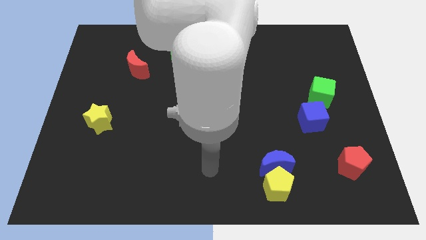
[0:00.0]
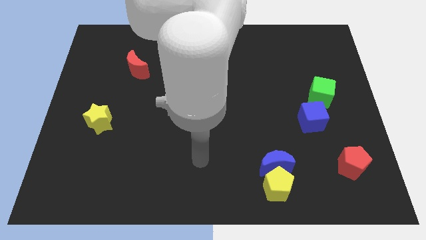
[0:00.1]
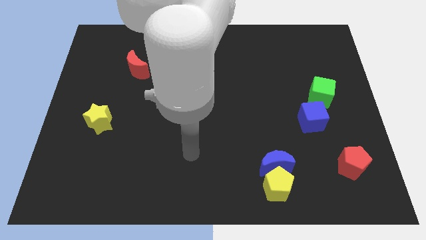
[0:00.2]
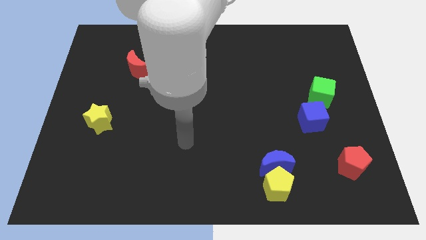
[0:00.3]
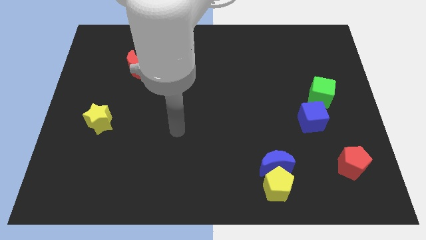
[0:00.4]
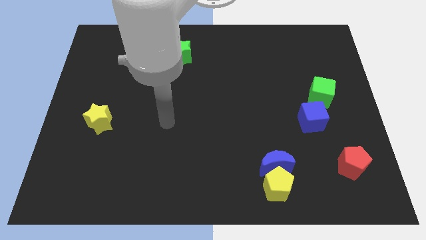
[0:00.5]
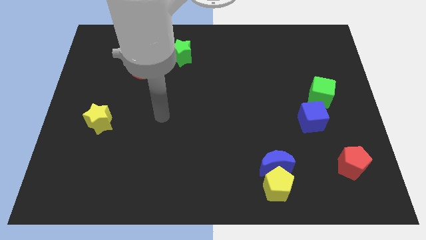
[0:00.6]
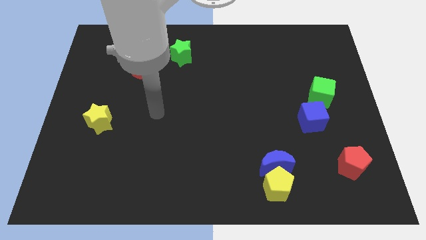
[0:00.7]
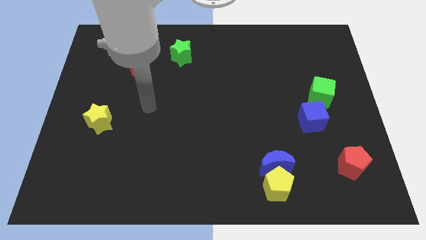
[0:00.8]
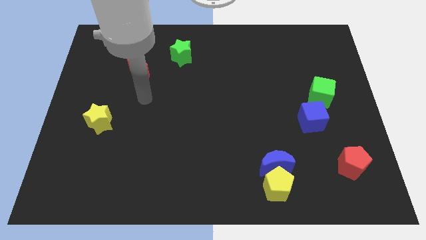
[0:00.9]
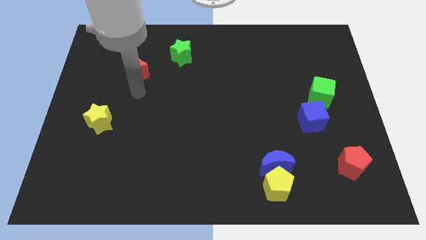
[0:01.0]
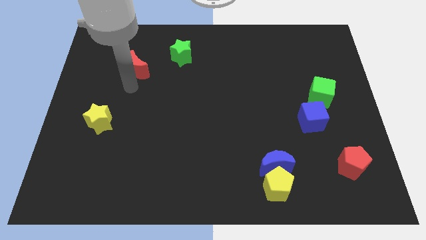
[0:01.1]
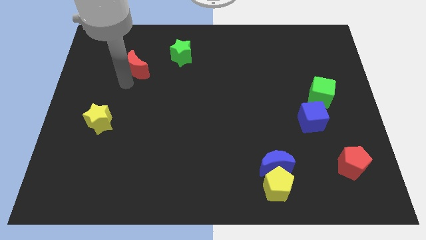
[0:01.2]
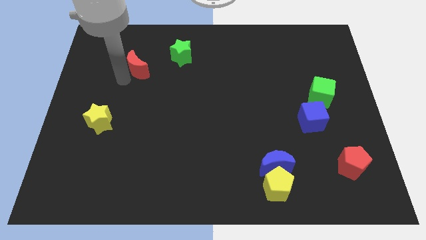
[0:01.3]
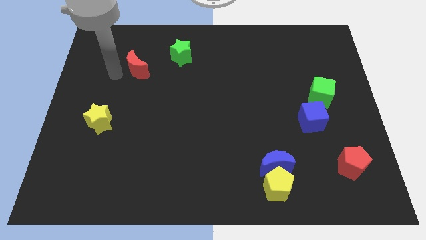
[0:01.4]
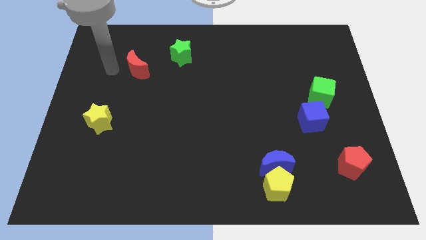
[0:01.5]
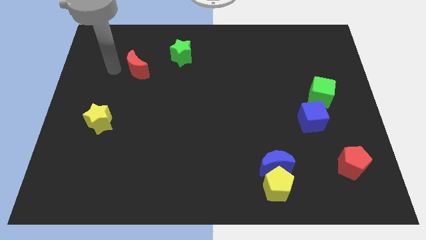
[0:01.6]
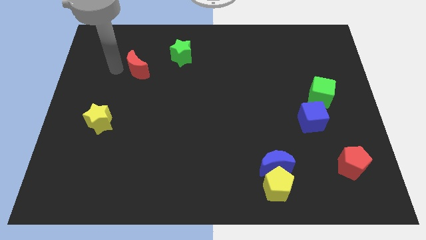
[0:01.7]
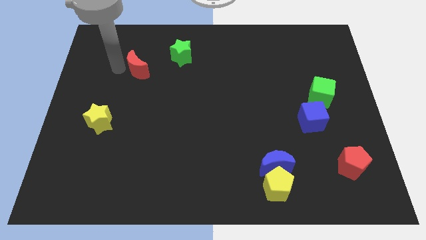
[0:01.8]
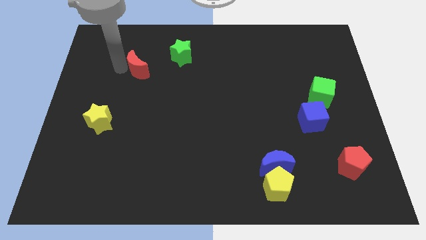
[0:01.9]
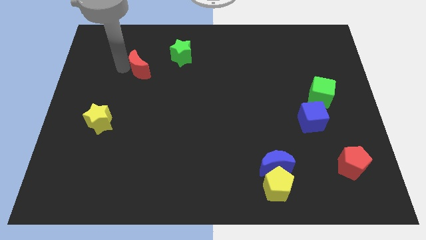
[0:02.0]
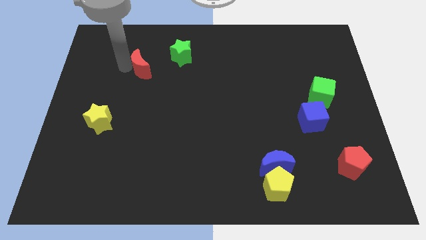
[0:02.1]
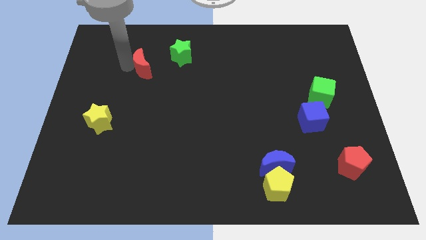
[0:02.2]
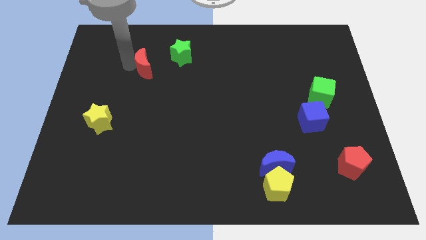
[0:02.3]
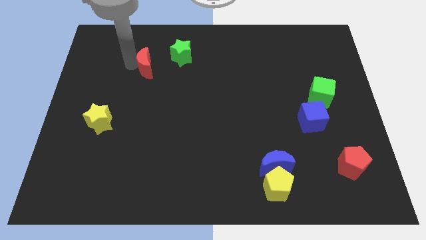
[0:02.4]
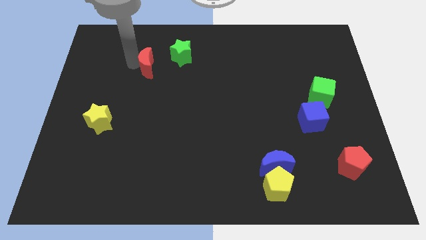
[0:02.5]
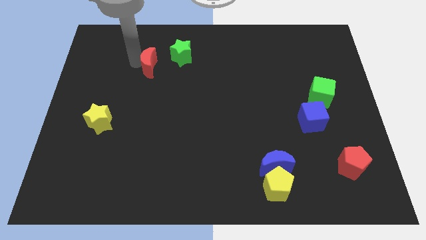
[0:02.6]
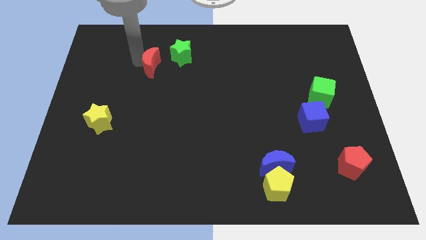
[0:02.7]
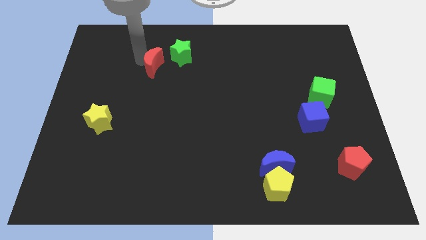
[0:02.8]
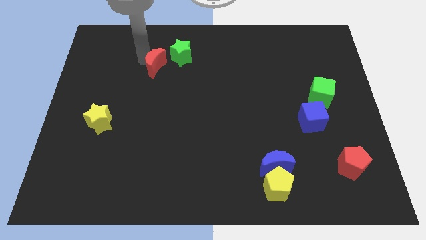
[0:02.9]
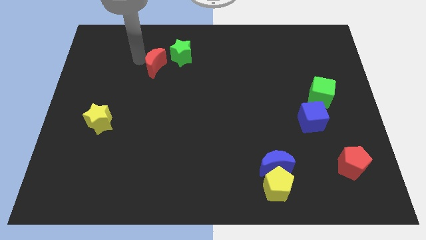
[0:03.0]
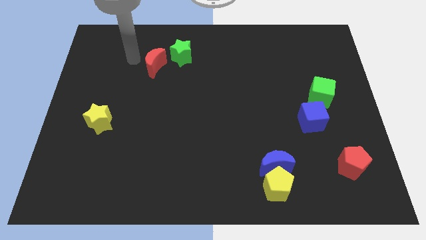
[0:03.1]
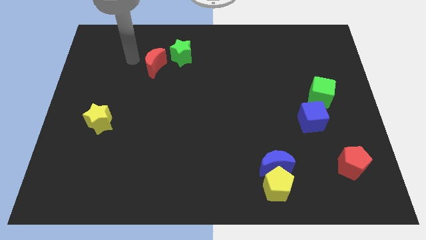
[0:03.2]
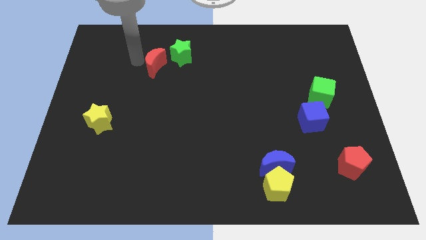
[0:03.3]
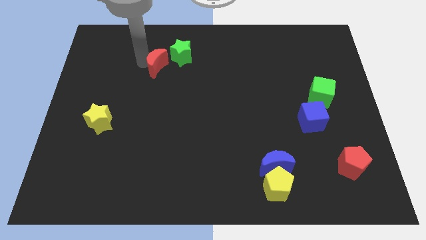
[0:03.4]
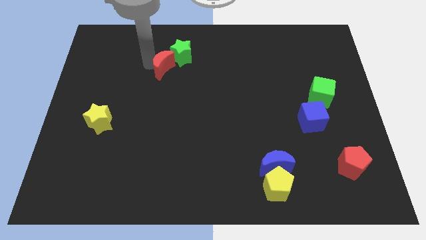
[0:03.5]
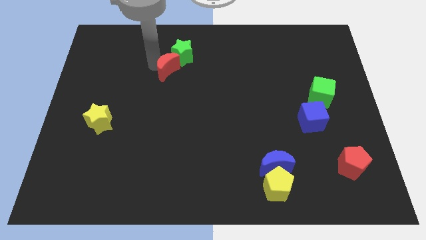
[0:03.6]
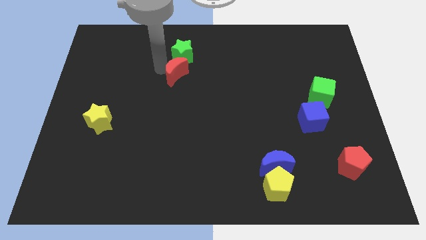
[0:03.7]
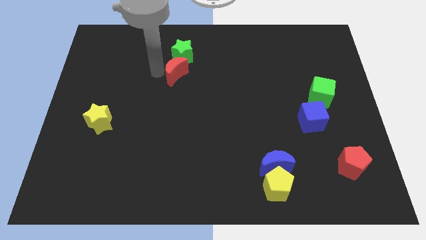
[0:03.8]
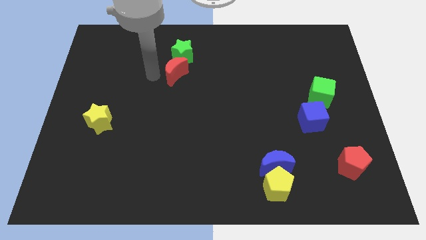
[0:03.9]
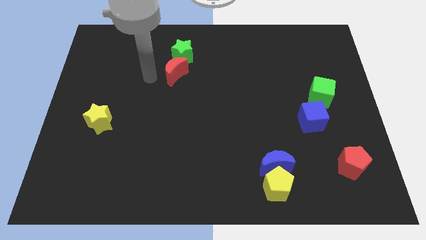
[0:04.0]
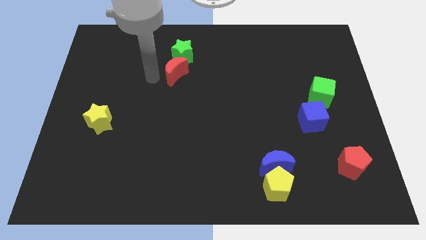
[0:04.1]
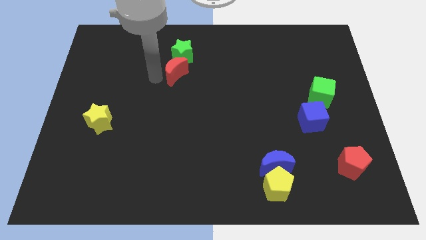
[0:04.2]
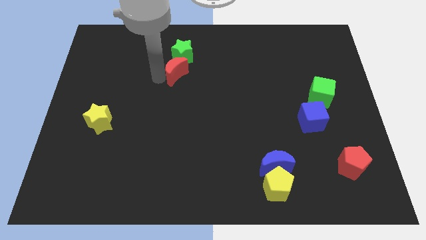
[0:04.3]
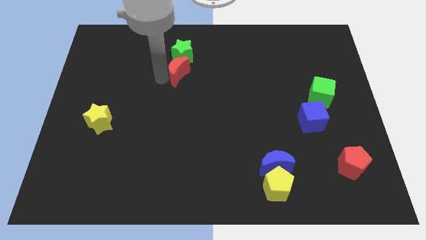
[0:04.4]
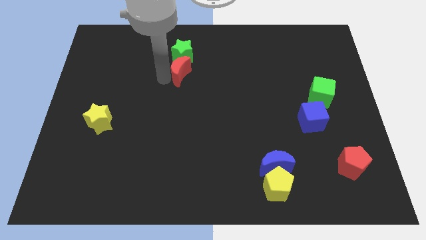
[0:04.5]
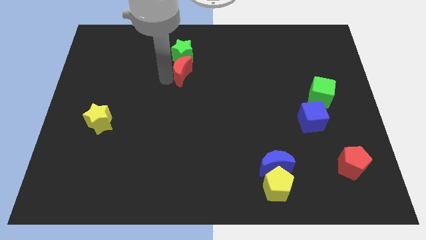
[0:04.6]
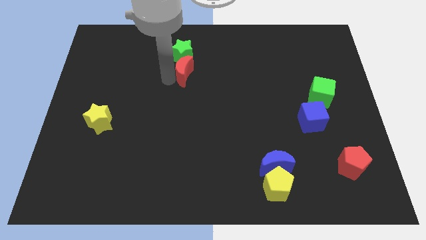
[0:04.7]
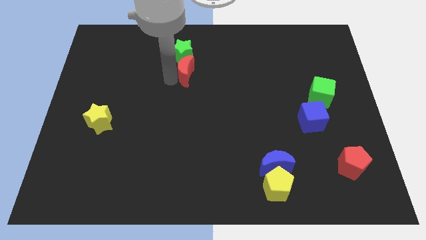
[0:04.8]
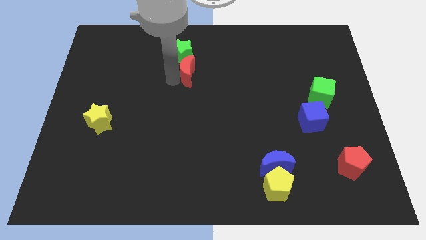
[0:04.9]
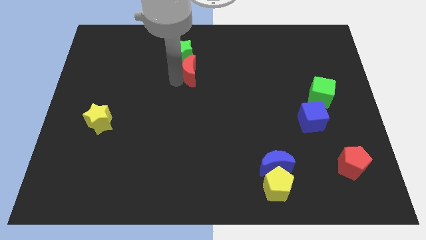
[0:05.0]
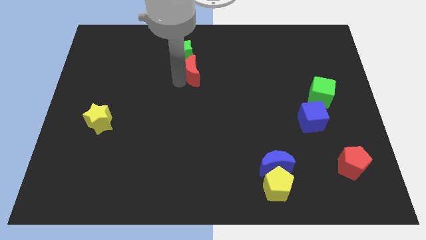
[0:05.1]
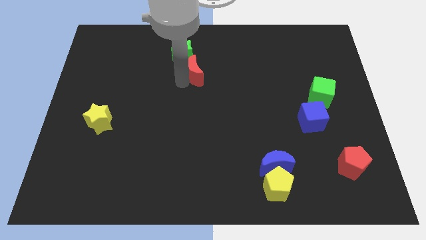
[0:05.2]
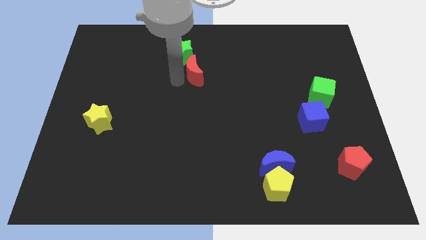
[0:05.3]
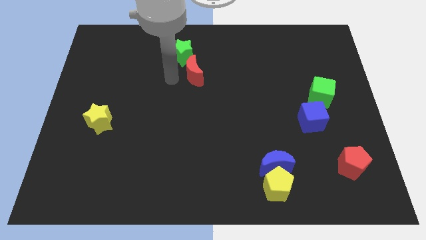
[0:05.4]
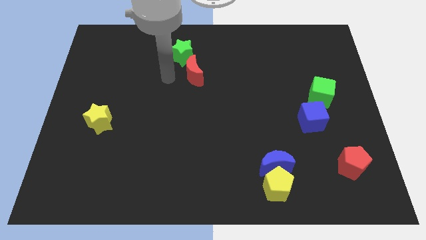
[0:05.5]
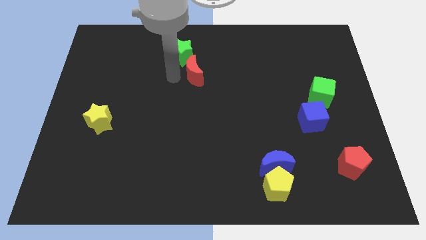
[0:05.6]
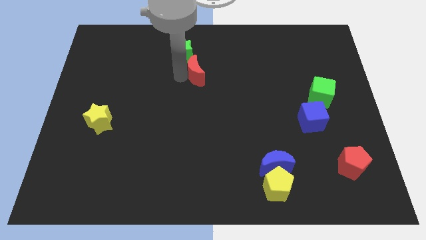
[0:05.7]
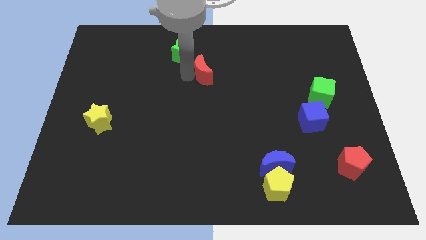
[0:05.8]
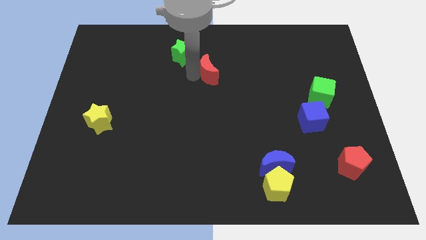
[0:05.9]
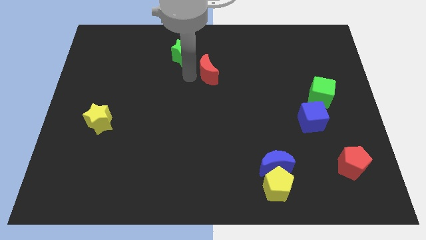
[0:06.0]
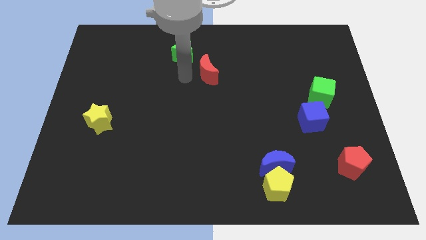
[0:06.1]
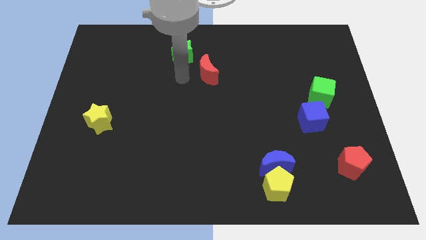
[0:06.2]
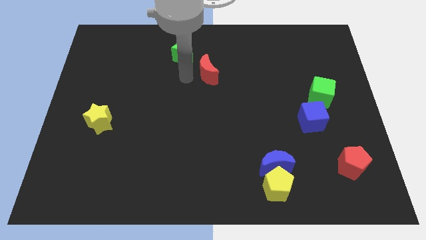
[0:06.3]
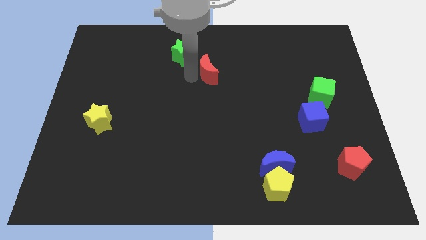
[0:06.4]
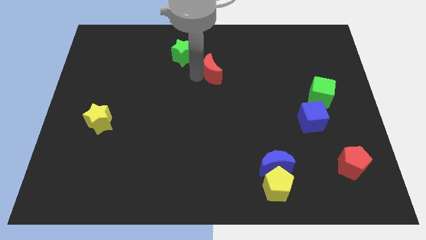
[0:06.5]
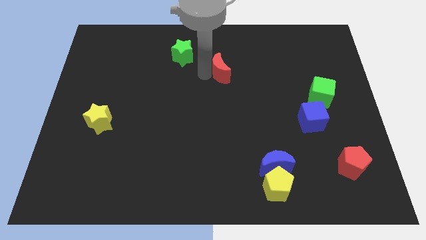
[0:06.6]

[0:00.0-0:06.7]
move the red moon to the right

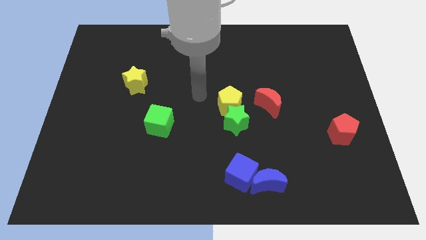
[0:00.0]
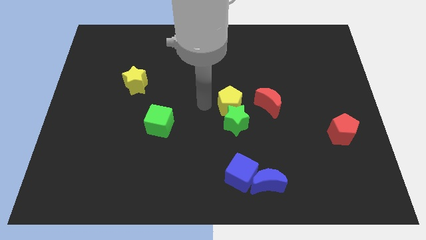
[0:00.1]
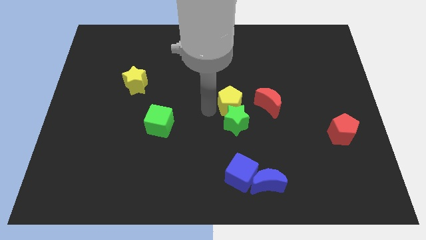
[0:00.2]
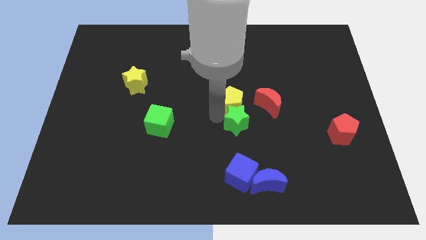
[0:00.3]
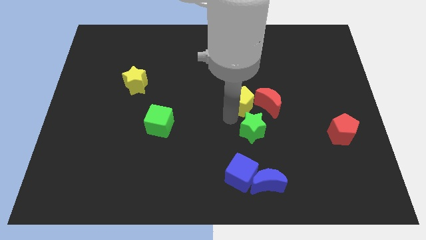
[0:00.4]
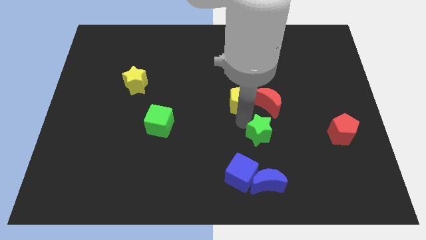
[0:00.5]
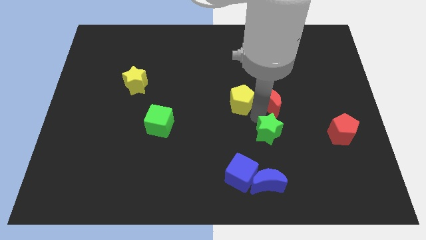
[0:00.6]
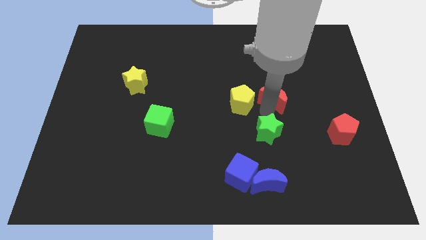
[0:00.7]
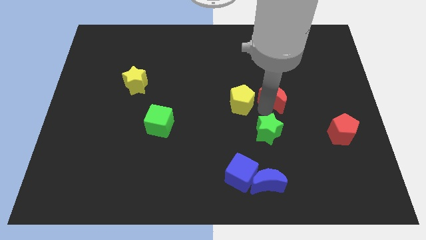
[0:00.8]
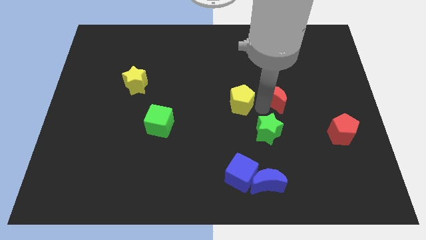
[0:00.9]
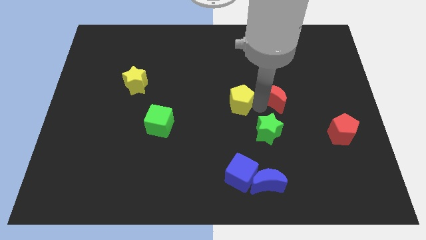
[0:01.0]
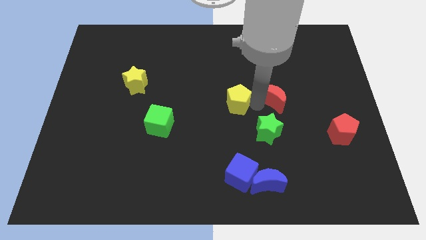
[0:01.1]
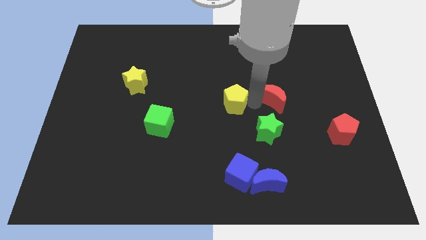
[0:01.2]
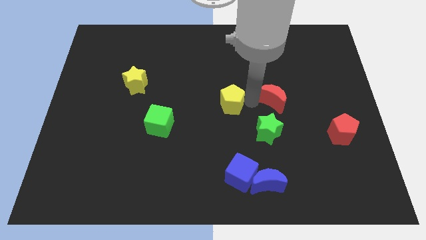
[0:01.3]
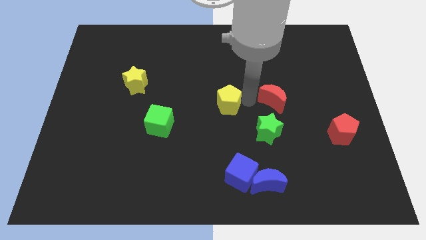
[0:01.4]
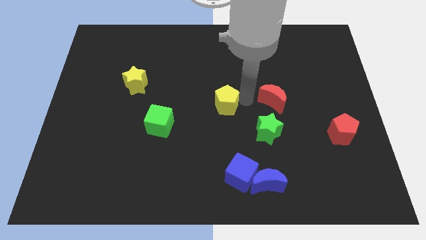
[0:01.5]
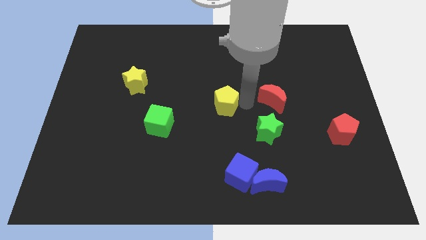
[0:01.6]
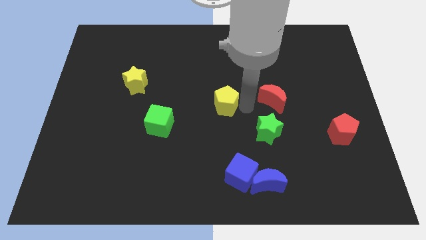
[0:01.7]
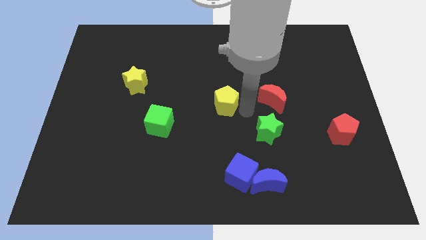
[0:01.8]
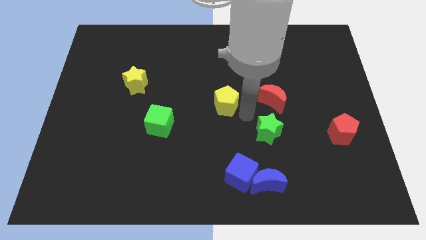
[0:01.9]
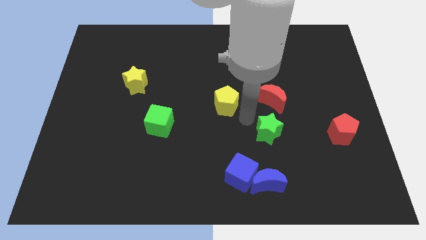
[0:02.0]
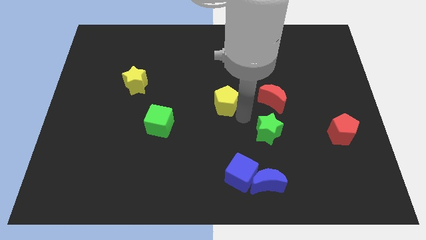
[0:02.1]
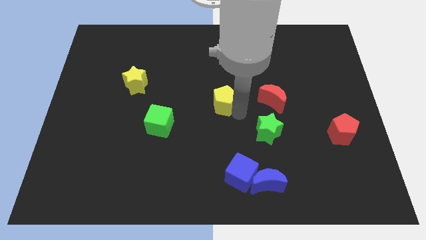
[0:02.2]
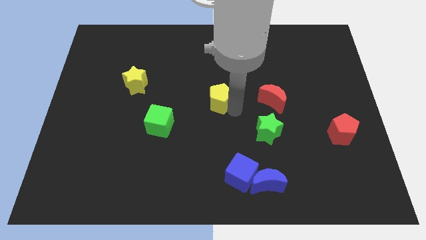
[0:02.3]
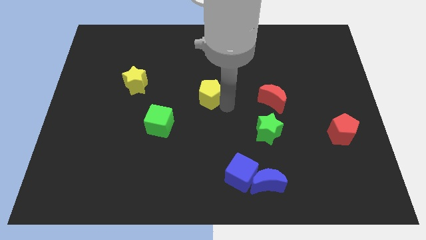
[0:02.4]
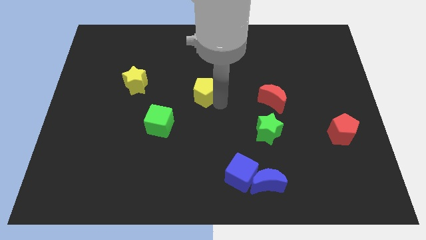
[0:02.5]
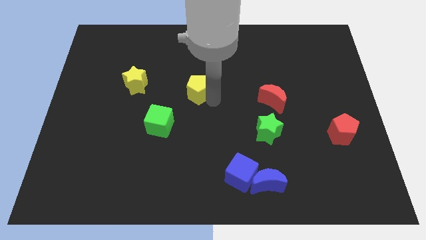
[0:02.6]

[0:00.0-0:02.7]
move the yellow pentagon upwards and to the left diagonally somewhat
